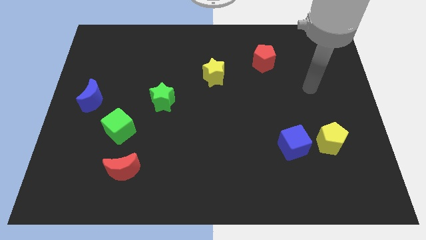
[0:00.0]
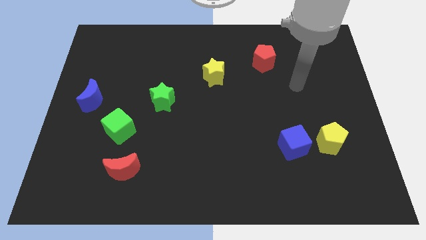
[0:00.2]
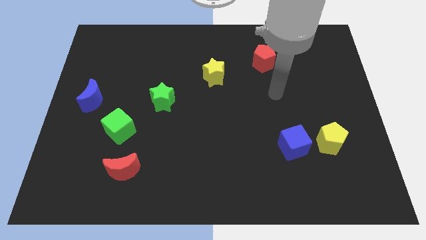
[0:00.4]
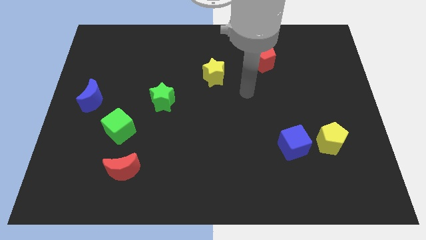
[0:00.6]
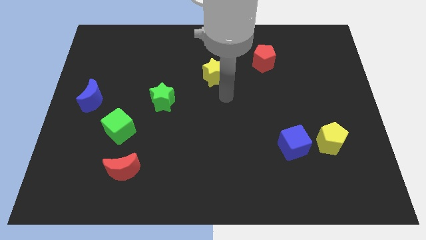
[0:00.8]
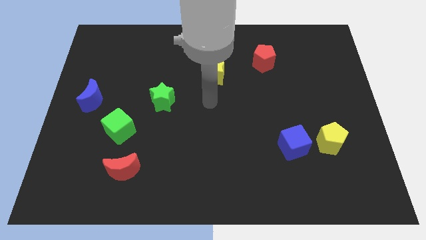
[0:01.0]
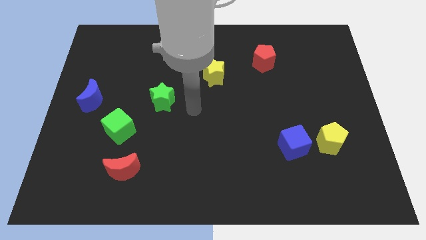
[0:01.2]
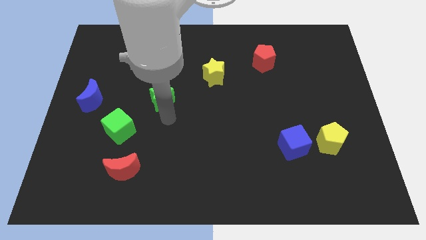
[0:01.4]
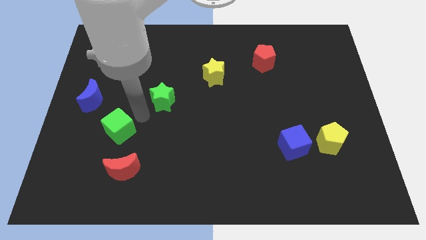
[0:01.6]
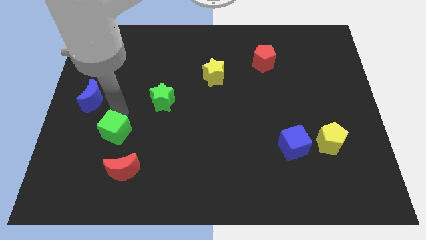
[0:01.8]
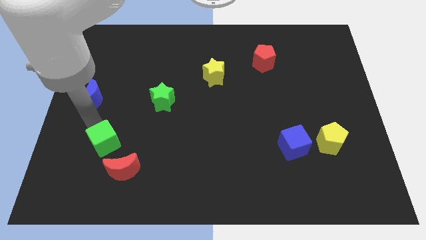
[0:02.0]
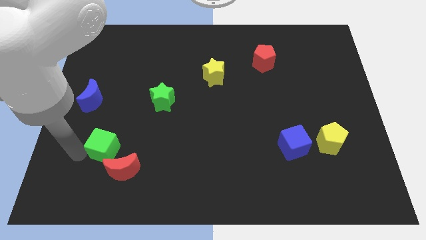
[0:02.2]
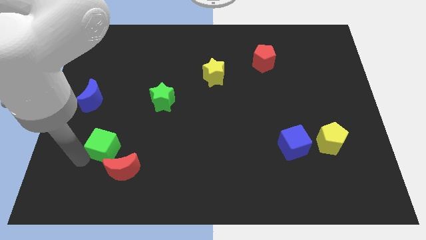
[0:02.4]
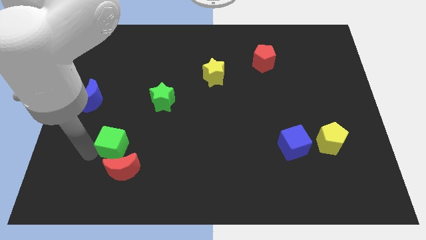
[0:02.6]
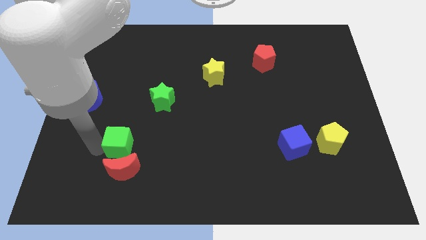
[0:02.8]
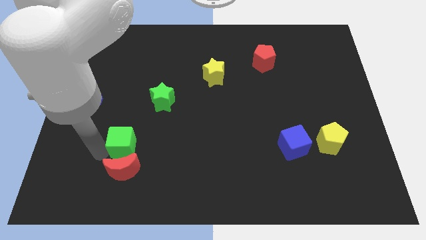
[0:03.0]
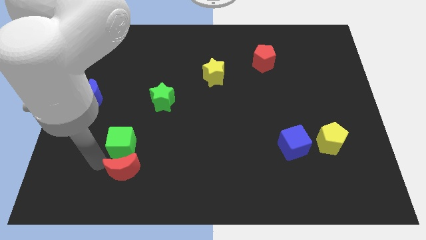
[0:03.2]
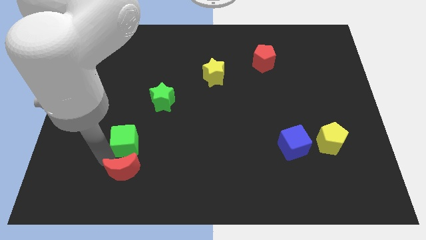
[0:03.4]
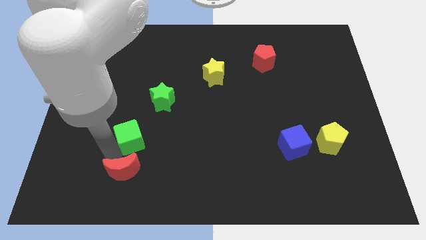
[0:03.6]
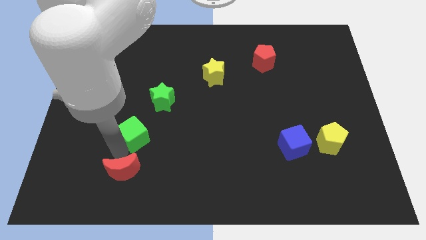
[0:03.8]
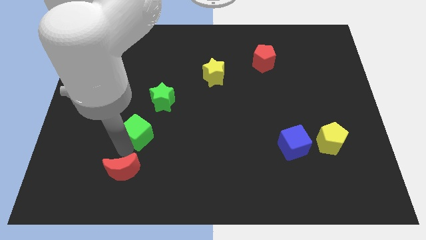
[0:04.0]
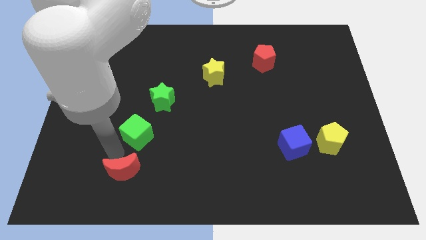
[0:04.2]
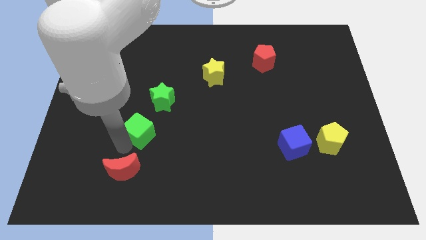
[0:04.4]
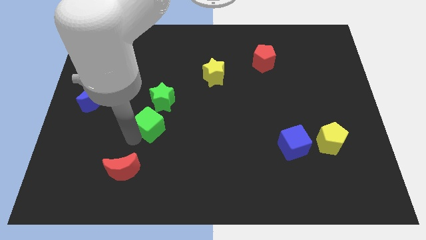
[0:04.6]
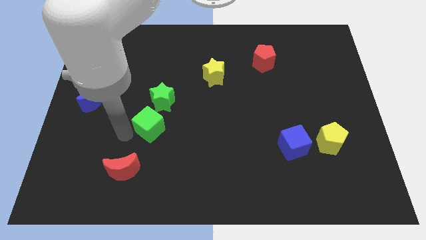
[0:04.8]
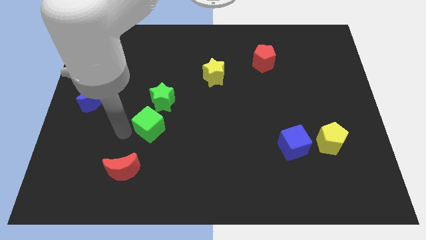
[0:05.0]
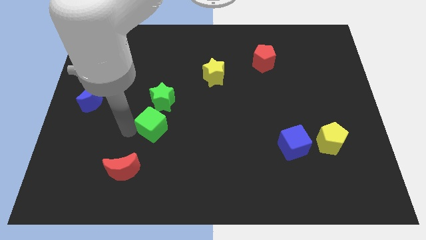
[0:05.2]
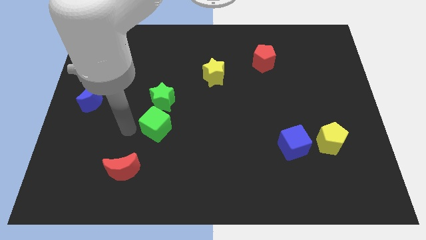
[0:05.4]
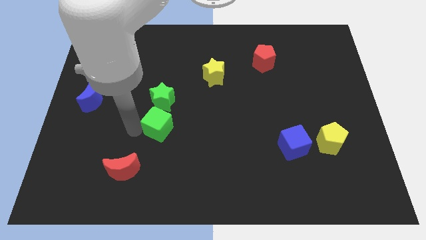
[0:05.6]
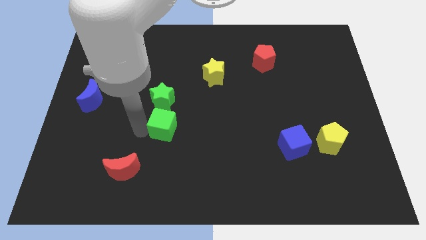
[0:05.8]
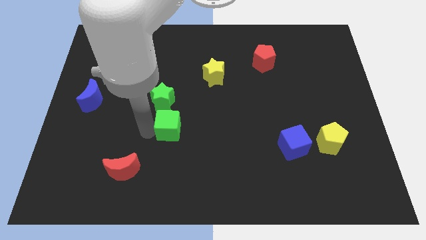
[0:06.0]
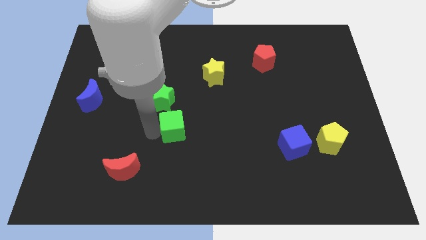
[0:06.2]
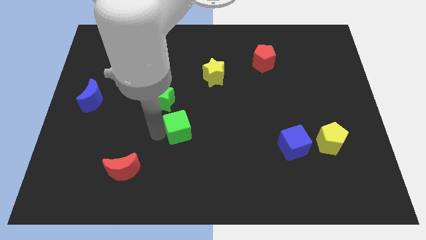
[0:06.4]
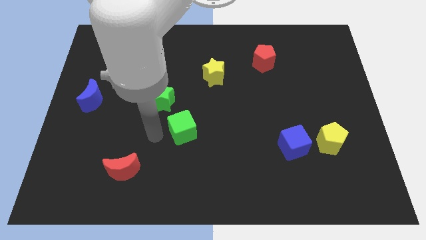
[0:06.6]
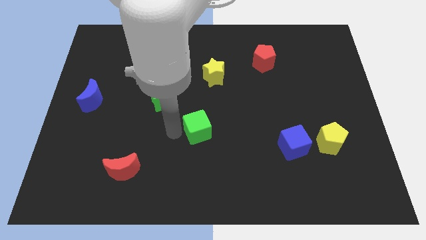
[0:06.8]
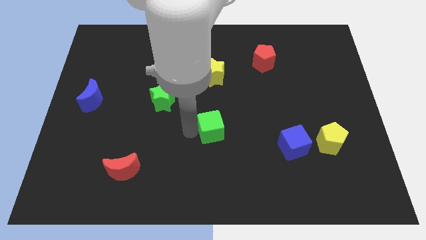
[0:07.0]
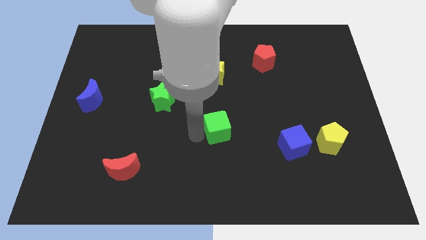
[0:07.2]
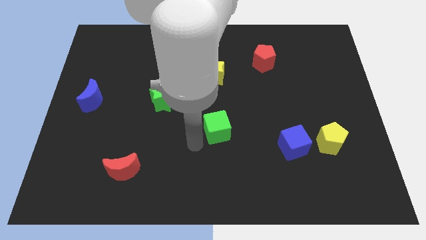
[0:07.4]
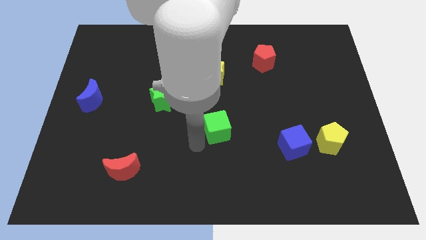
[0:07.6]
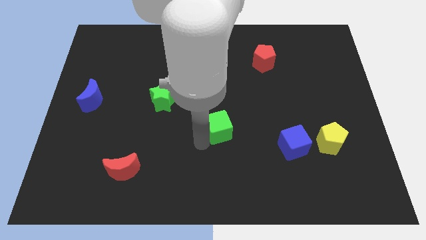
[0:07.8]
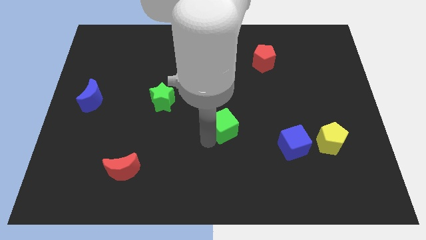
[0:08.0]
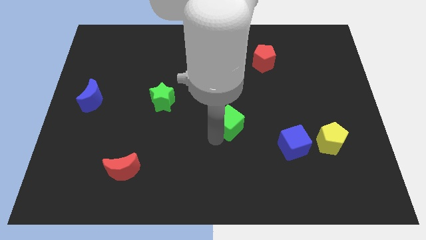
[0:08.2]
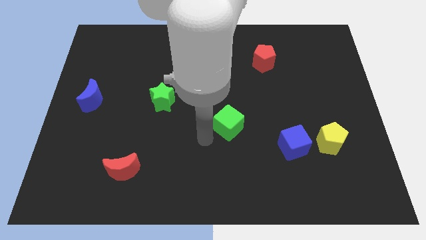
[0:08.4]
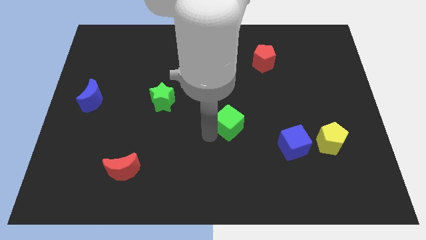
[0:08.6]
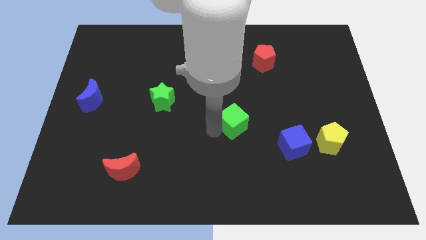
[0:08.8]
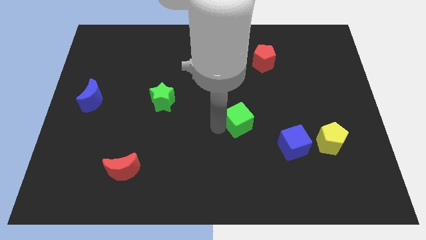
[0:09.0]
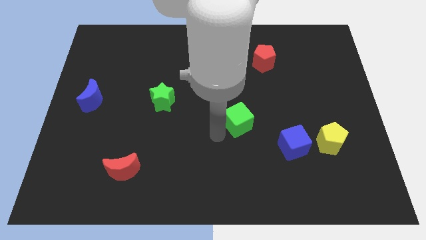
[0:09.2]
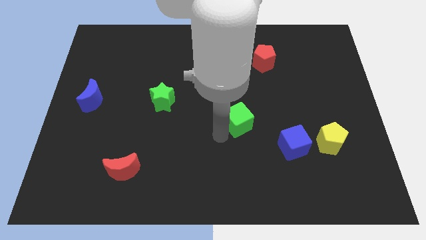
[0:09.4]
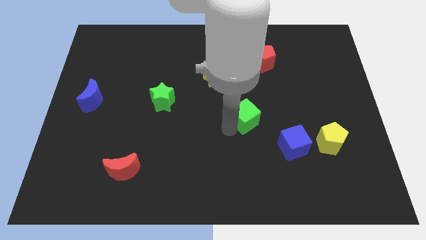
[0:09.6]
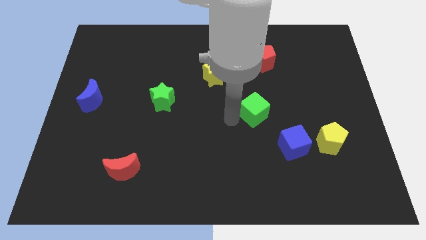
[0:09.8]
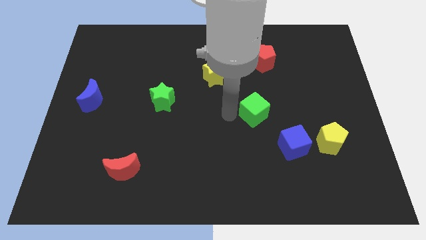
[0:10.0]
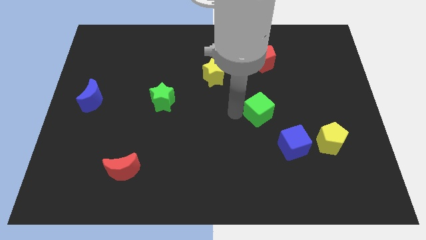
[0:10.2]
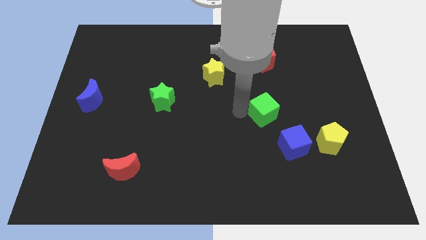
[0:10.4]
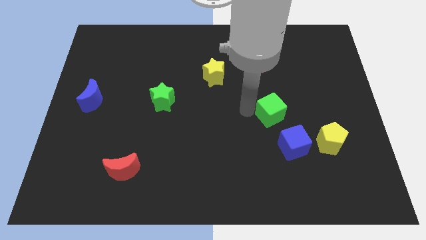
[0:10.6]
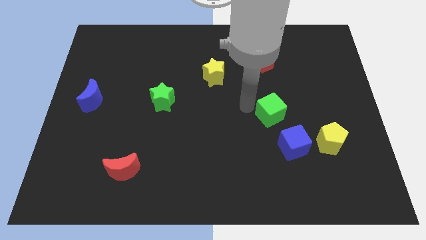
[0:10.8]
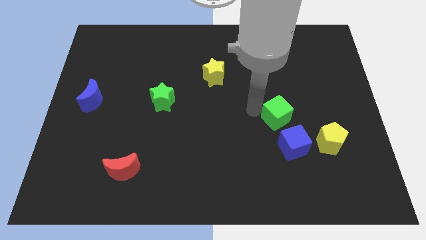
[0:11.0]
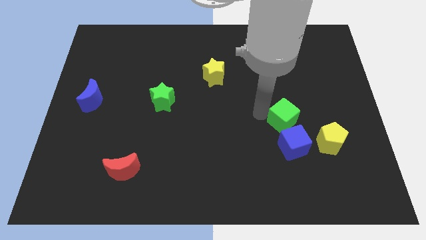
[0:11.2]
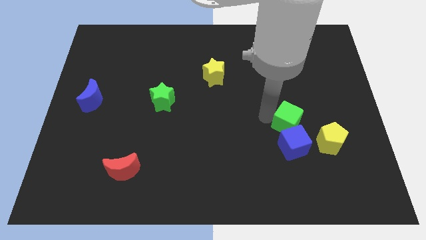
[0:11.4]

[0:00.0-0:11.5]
put the green cube to the top right of the blue cube

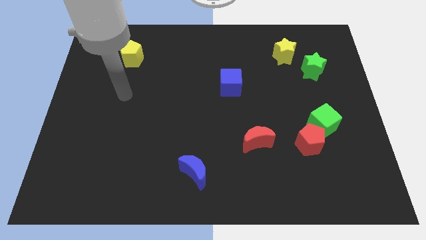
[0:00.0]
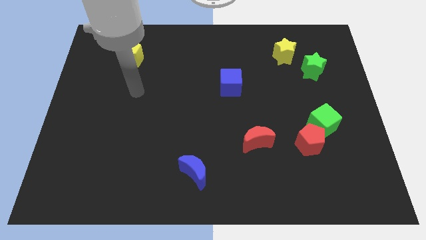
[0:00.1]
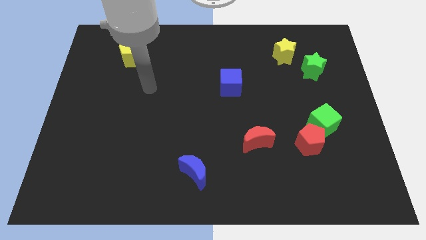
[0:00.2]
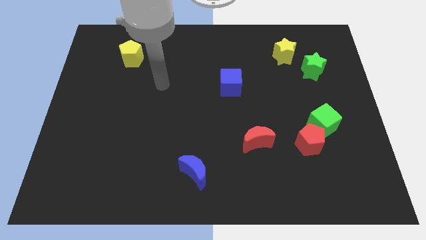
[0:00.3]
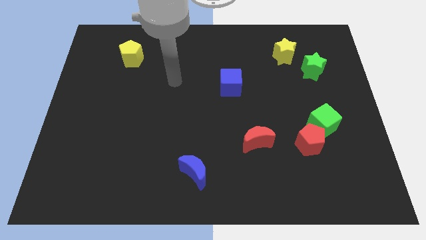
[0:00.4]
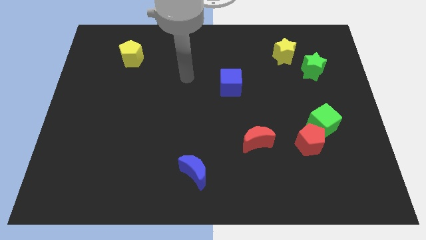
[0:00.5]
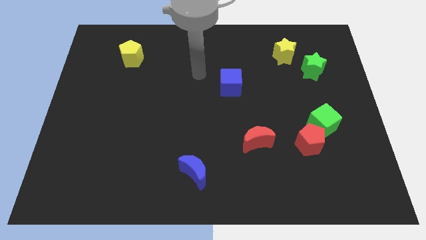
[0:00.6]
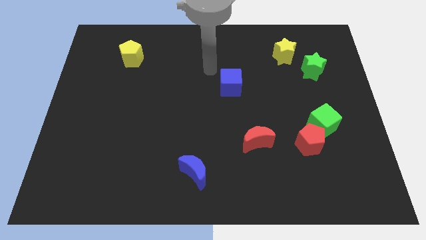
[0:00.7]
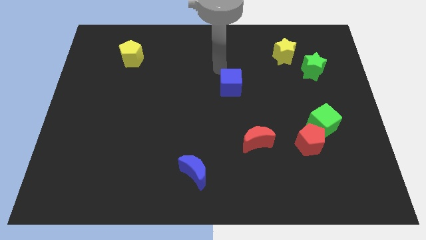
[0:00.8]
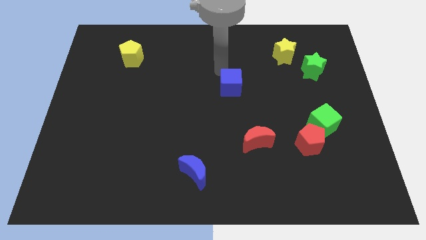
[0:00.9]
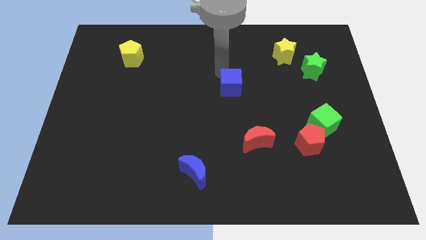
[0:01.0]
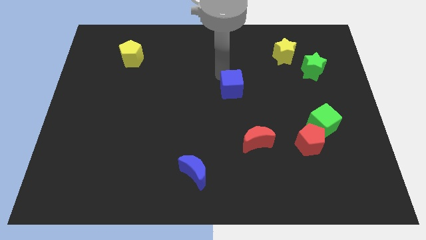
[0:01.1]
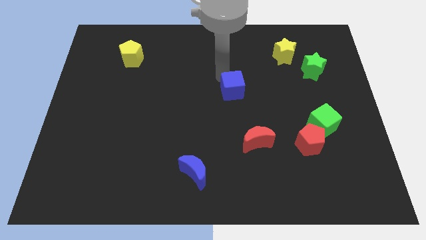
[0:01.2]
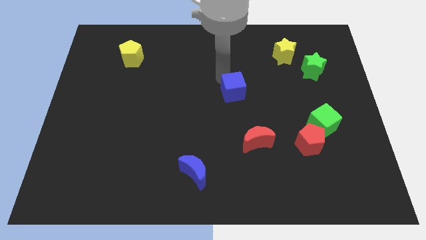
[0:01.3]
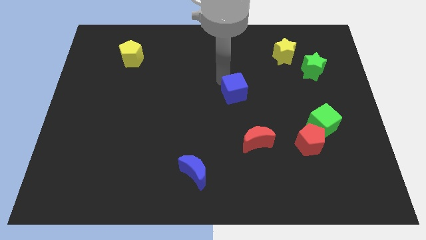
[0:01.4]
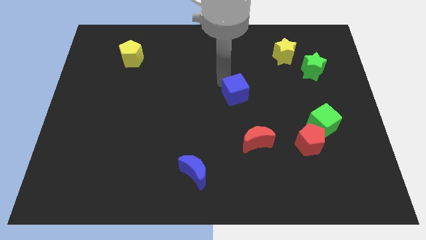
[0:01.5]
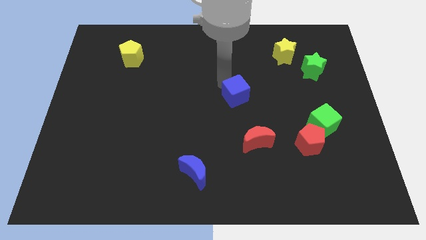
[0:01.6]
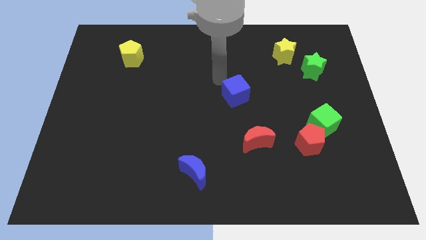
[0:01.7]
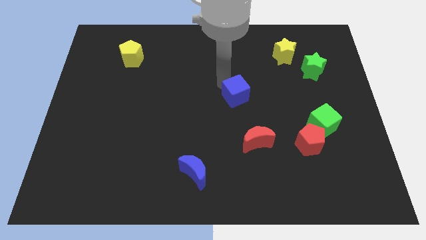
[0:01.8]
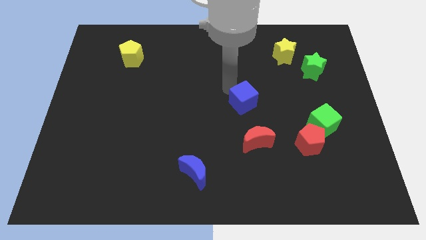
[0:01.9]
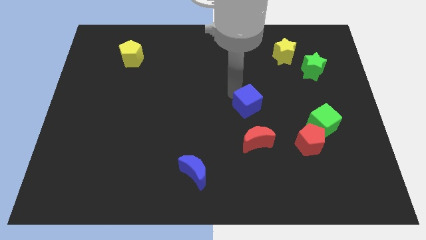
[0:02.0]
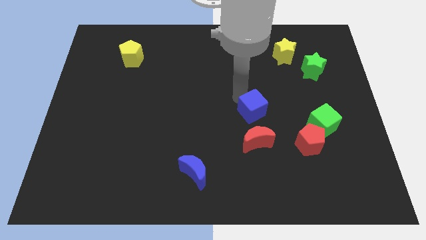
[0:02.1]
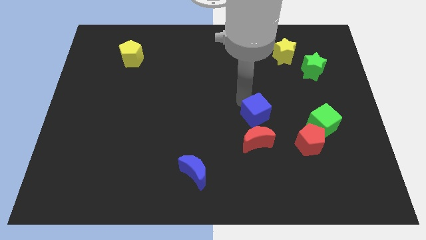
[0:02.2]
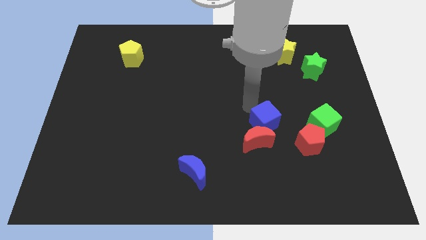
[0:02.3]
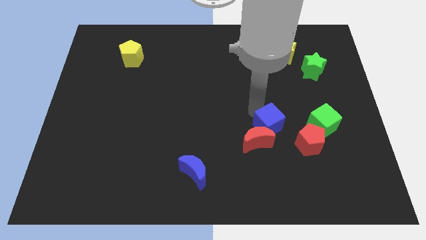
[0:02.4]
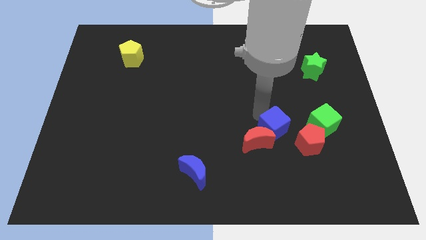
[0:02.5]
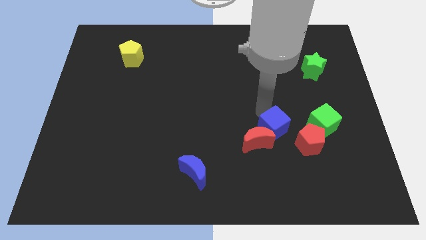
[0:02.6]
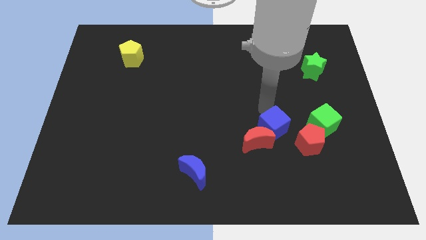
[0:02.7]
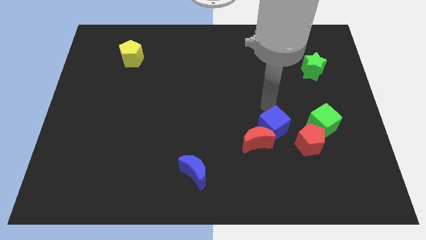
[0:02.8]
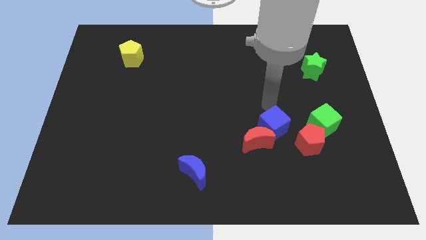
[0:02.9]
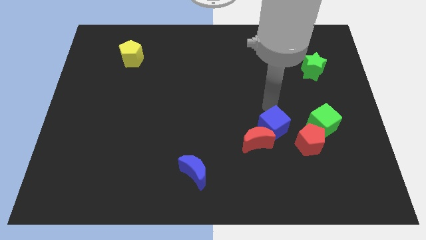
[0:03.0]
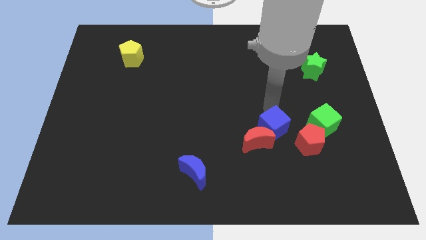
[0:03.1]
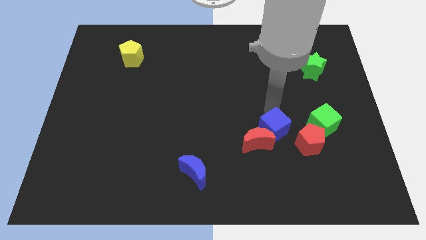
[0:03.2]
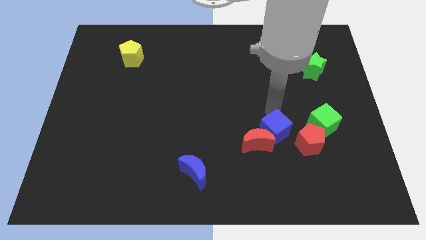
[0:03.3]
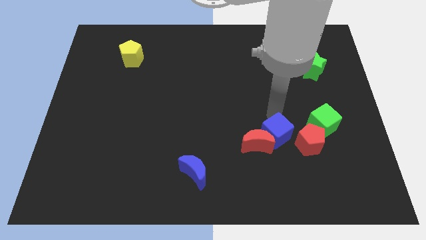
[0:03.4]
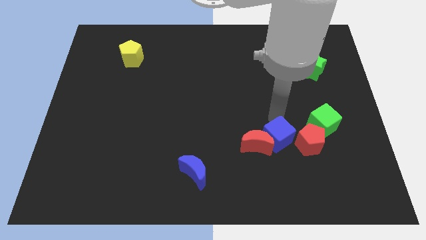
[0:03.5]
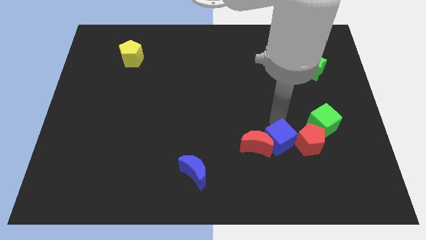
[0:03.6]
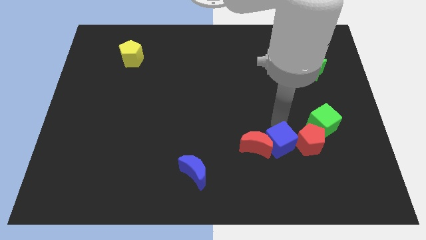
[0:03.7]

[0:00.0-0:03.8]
move the blue cube to the bottom left side of the red pentagon
